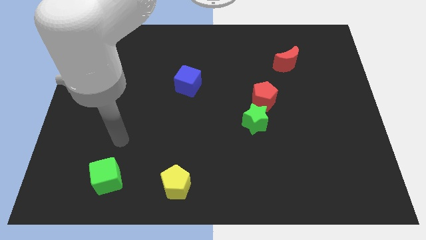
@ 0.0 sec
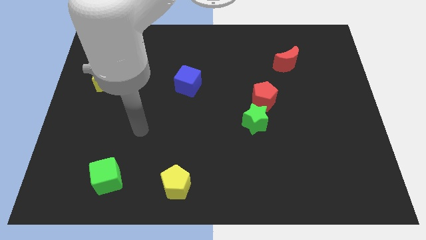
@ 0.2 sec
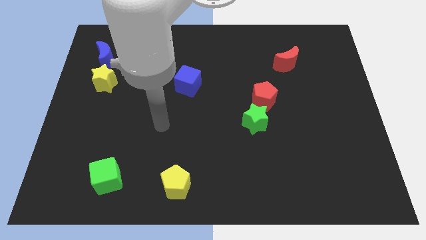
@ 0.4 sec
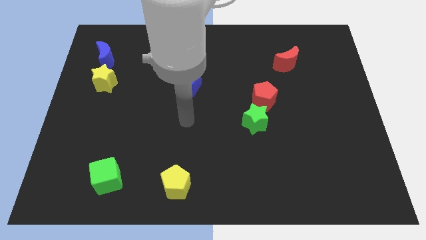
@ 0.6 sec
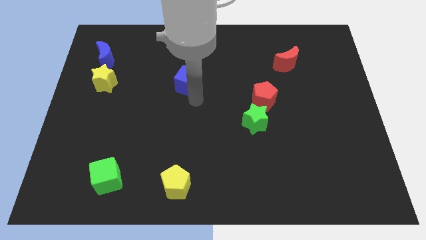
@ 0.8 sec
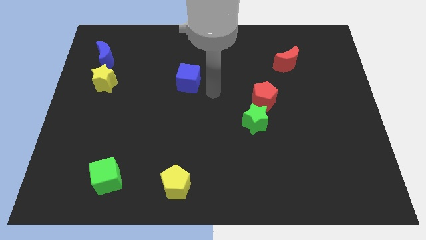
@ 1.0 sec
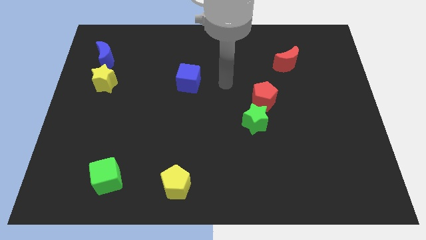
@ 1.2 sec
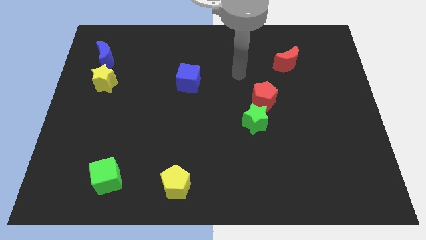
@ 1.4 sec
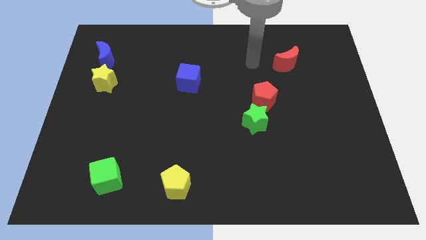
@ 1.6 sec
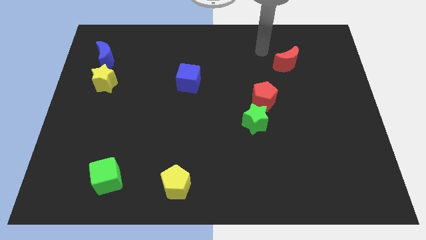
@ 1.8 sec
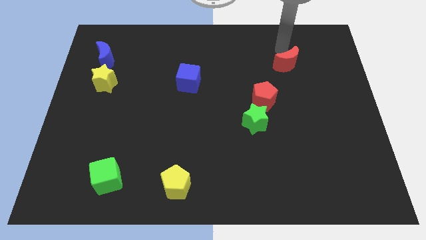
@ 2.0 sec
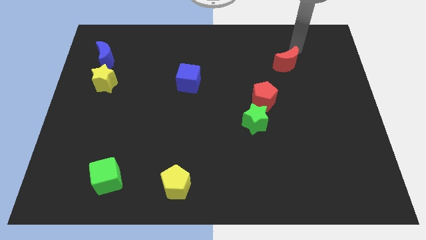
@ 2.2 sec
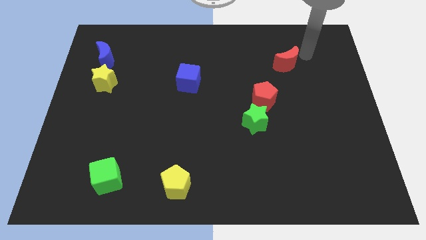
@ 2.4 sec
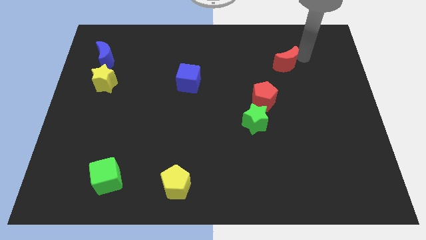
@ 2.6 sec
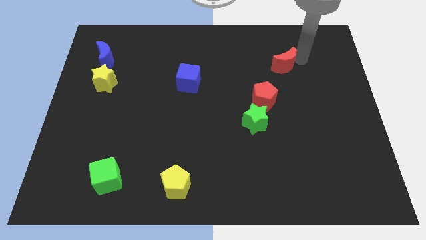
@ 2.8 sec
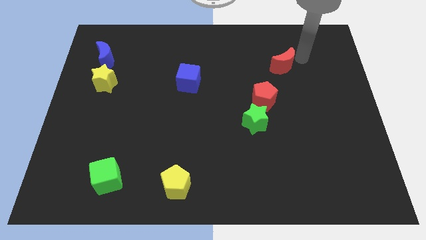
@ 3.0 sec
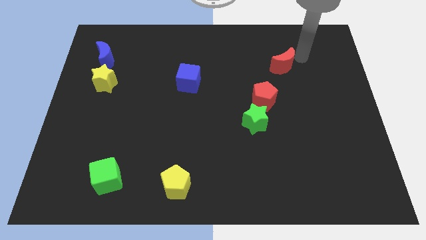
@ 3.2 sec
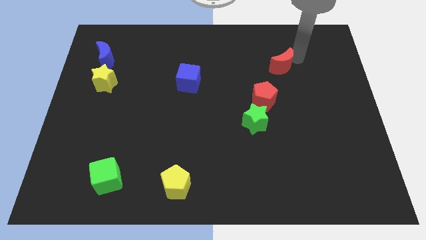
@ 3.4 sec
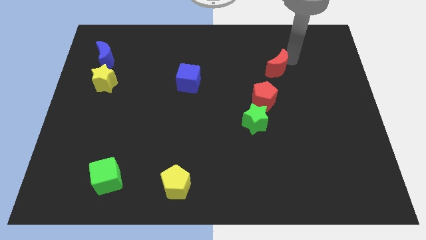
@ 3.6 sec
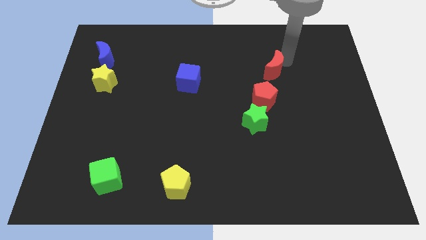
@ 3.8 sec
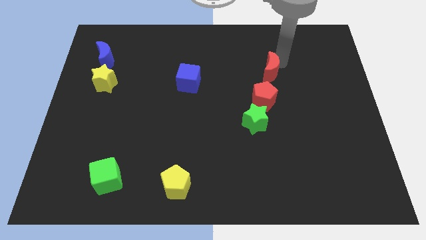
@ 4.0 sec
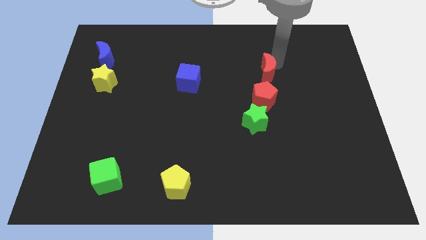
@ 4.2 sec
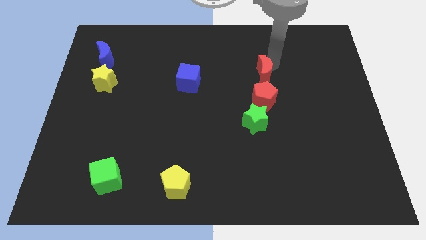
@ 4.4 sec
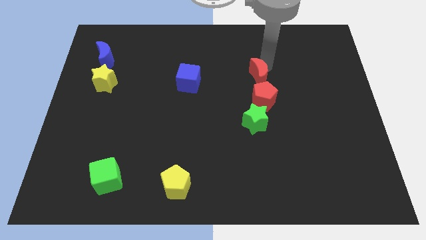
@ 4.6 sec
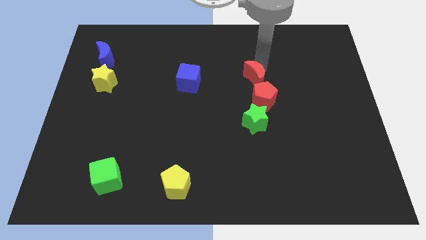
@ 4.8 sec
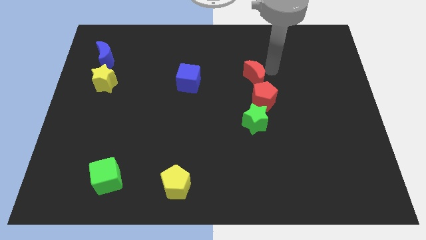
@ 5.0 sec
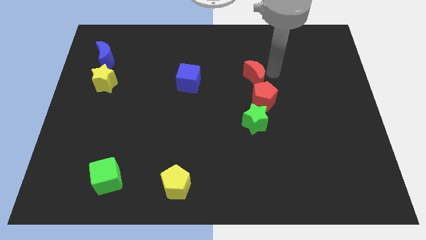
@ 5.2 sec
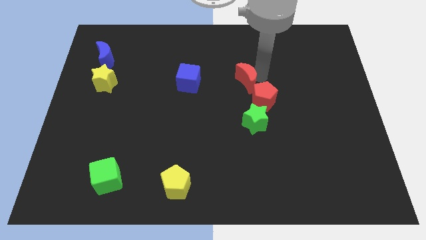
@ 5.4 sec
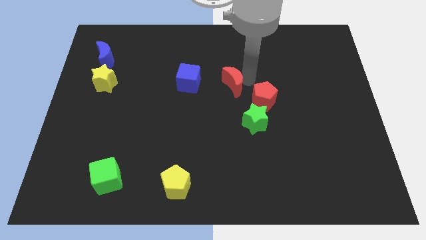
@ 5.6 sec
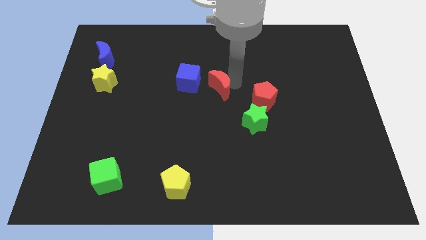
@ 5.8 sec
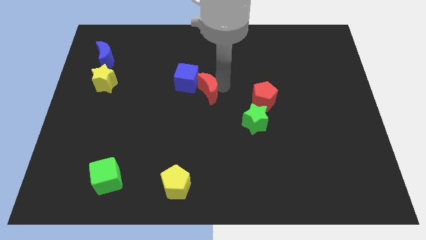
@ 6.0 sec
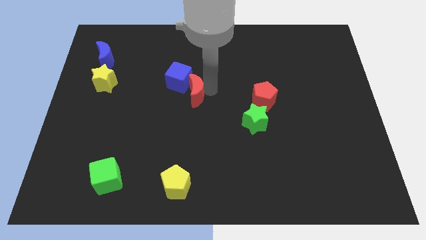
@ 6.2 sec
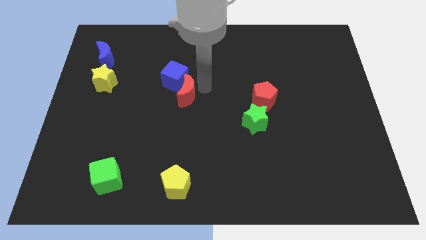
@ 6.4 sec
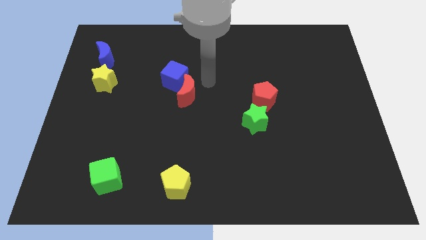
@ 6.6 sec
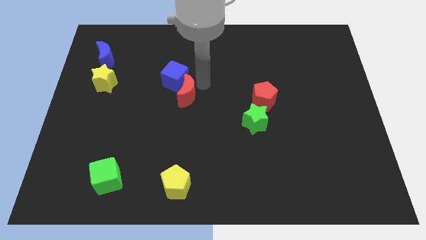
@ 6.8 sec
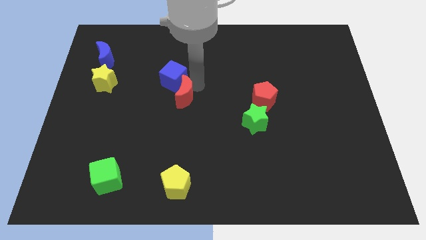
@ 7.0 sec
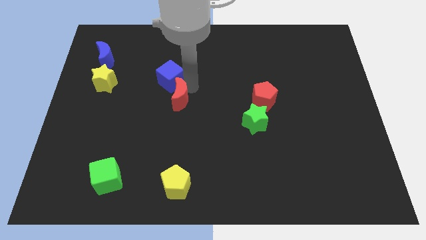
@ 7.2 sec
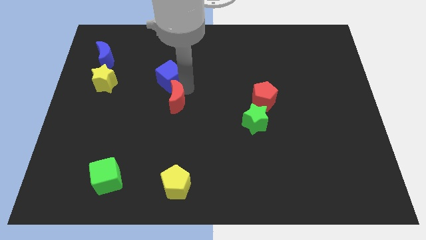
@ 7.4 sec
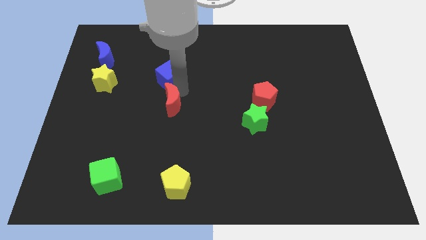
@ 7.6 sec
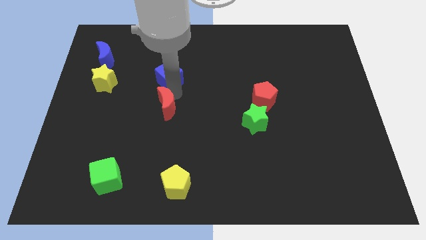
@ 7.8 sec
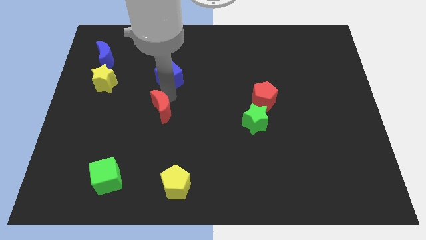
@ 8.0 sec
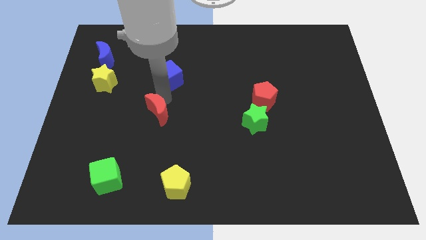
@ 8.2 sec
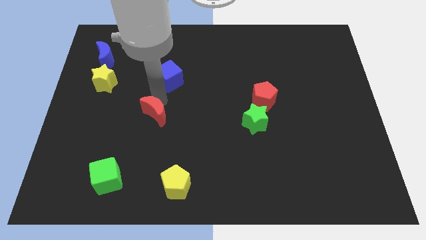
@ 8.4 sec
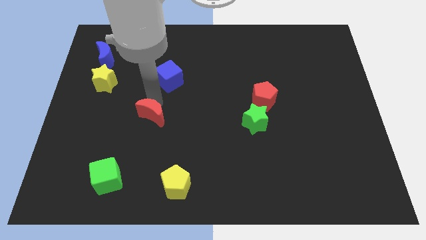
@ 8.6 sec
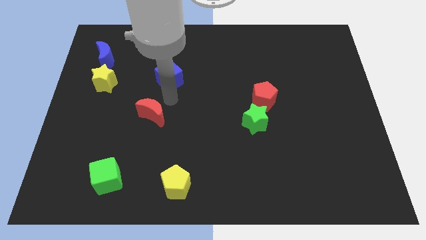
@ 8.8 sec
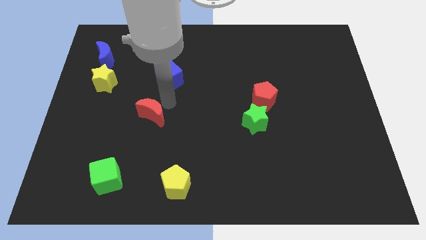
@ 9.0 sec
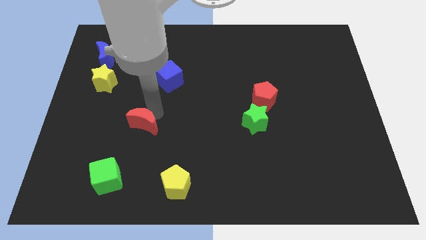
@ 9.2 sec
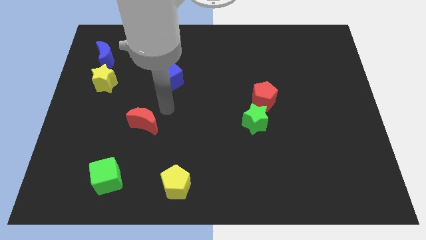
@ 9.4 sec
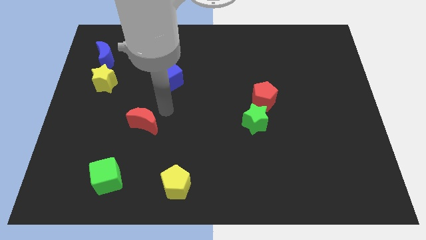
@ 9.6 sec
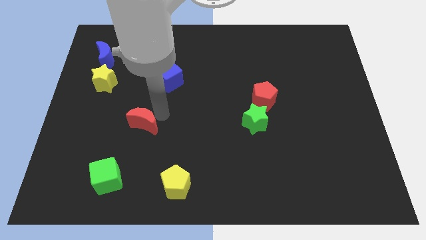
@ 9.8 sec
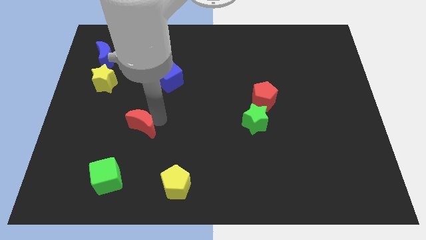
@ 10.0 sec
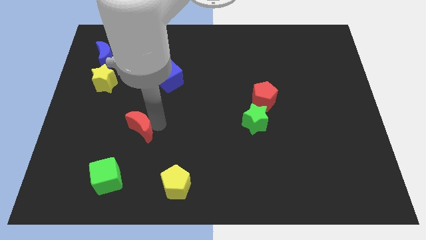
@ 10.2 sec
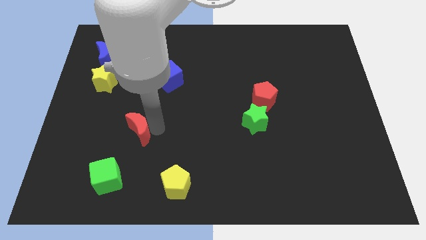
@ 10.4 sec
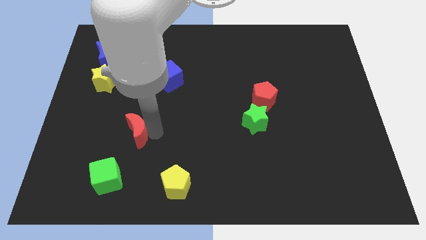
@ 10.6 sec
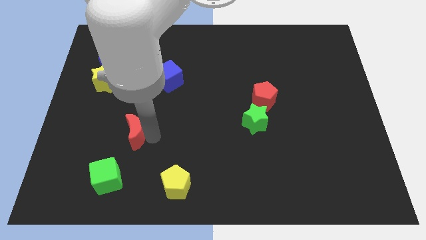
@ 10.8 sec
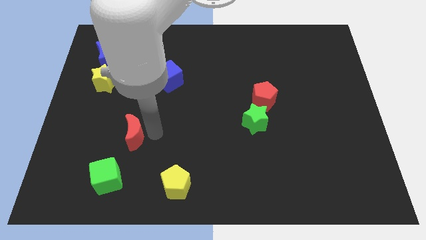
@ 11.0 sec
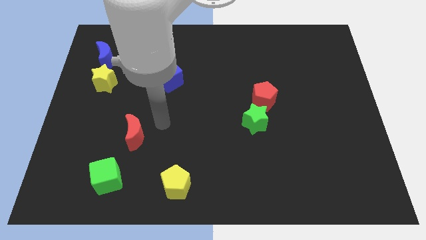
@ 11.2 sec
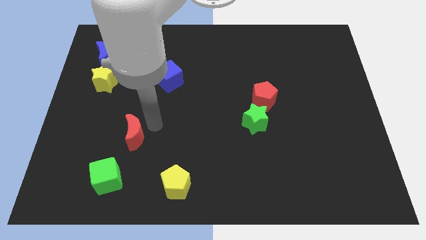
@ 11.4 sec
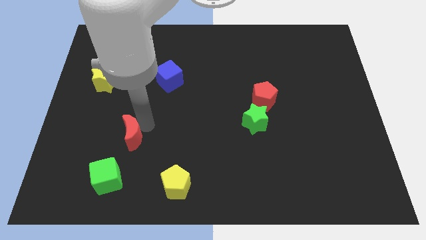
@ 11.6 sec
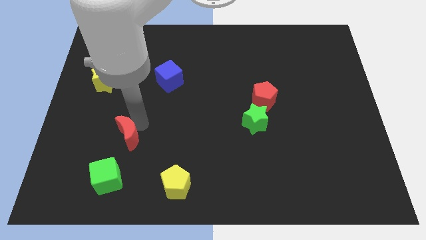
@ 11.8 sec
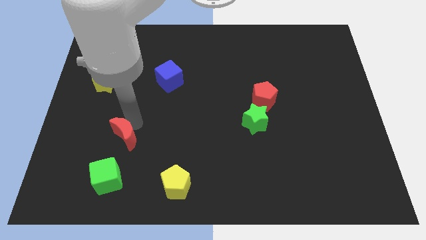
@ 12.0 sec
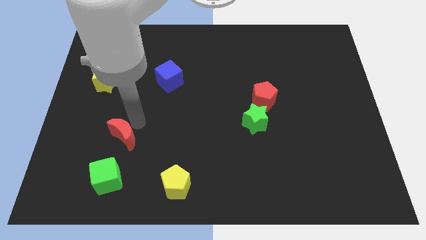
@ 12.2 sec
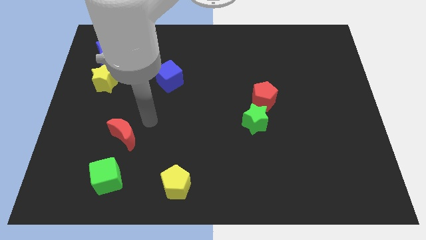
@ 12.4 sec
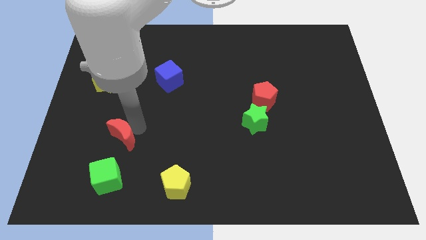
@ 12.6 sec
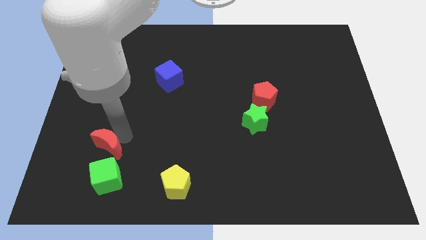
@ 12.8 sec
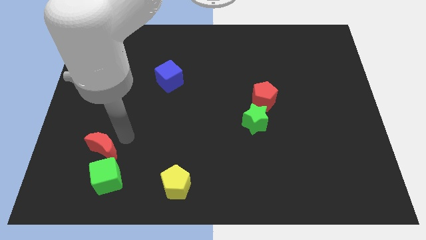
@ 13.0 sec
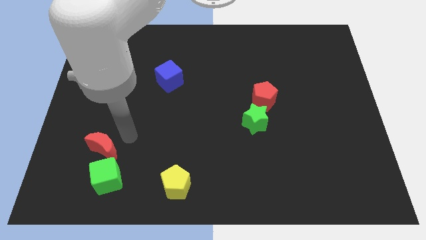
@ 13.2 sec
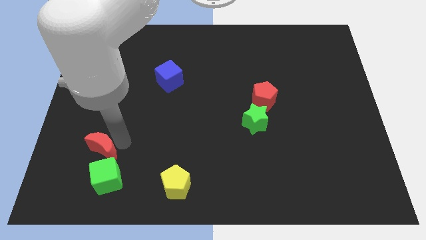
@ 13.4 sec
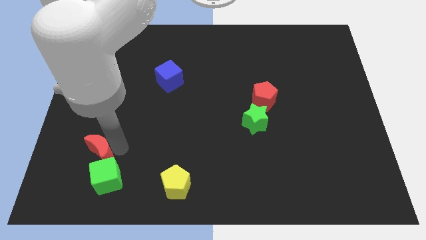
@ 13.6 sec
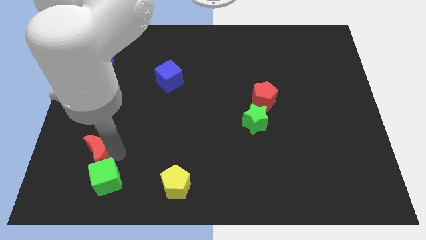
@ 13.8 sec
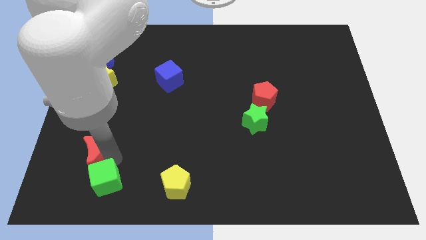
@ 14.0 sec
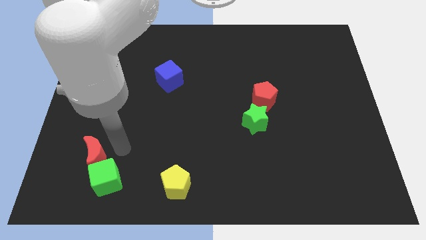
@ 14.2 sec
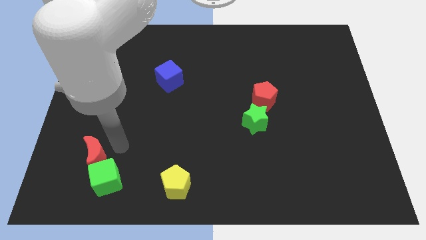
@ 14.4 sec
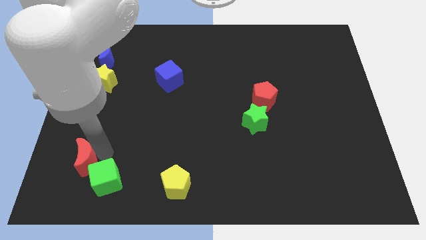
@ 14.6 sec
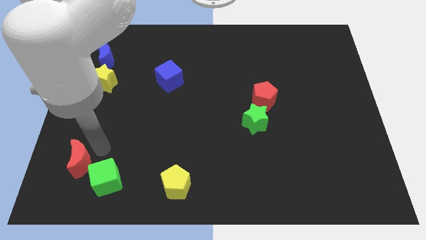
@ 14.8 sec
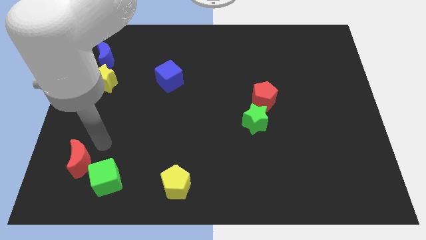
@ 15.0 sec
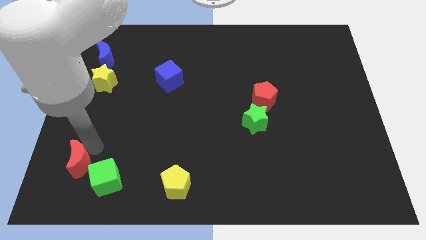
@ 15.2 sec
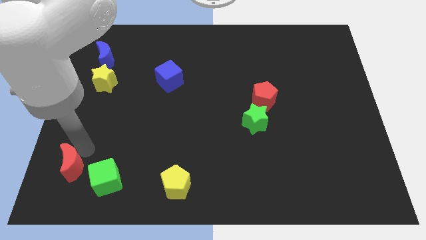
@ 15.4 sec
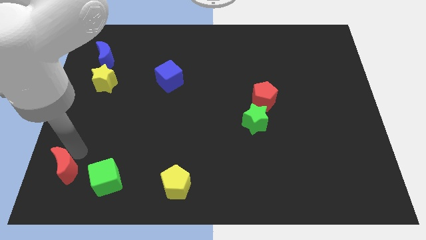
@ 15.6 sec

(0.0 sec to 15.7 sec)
push the red moon to the bottom left
